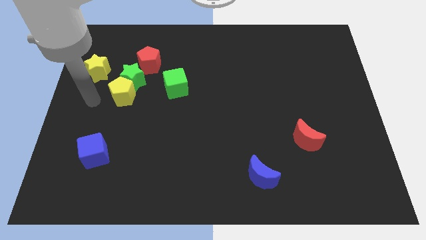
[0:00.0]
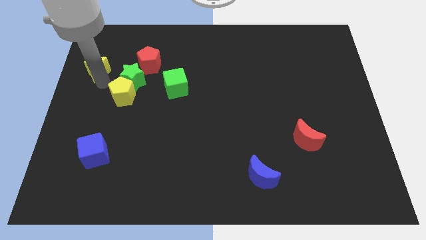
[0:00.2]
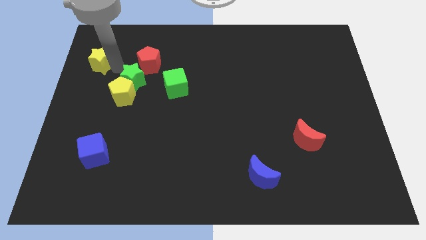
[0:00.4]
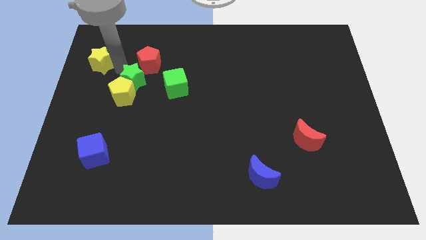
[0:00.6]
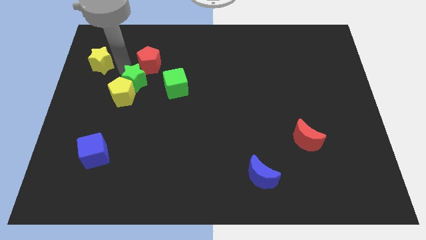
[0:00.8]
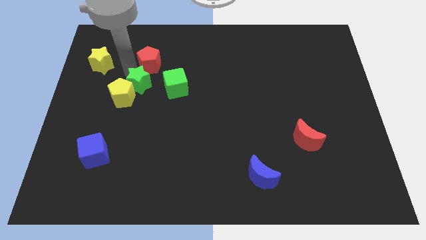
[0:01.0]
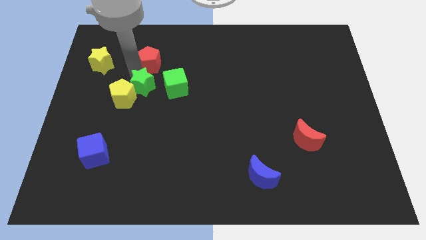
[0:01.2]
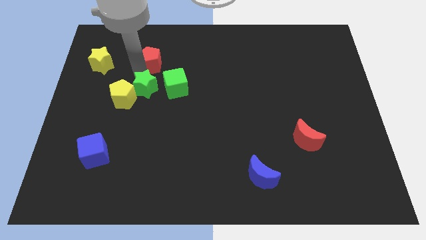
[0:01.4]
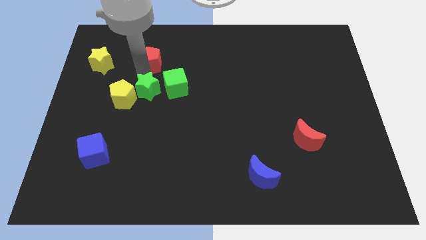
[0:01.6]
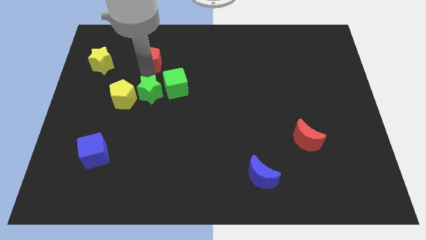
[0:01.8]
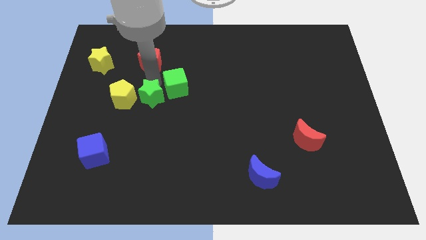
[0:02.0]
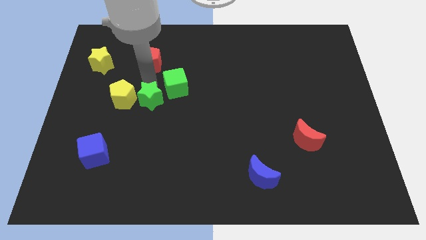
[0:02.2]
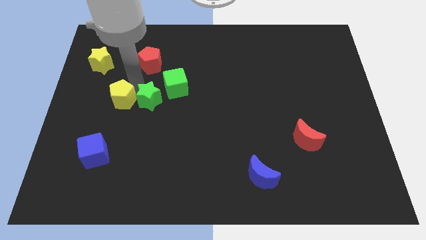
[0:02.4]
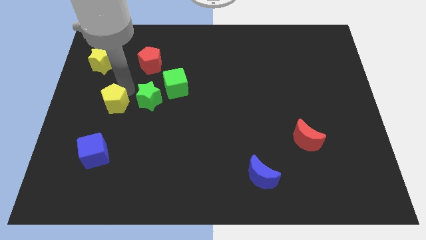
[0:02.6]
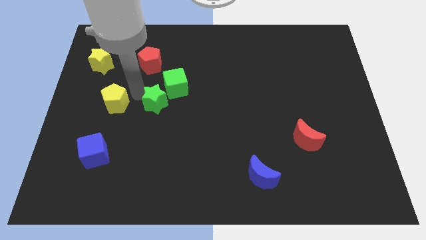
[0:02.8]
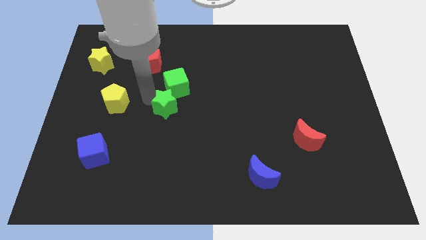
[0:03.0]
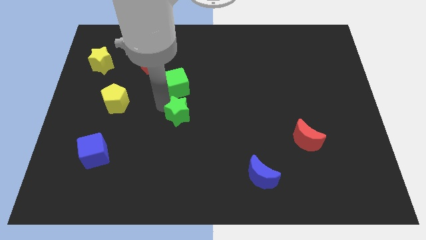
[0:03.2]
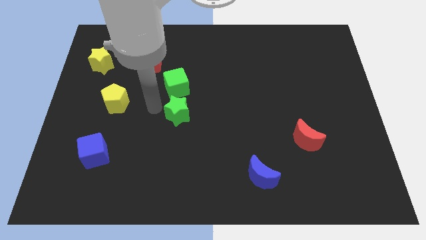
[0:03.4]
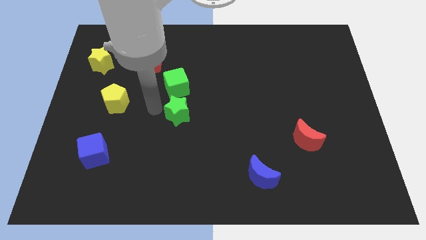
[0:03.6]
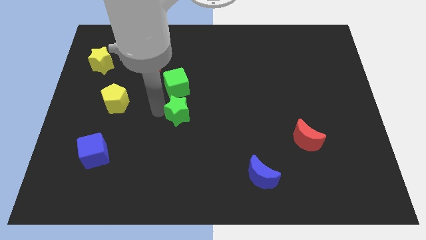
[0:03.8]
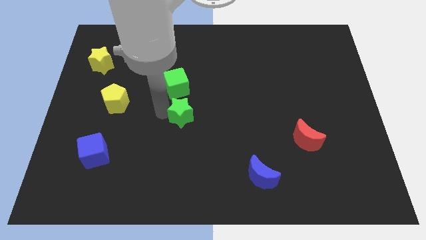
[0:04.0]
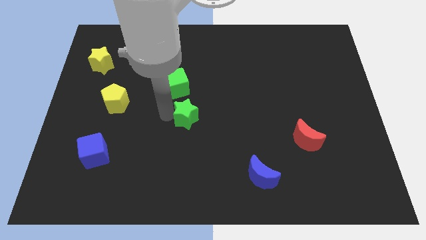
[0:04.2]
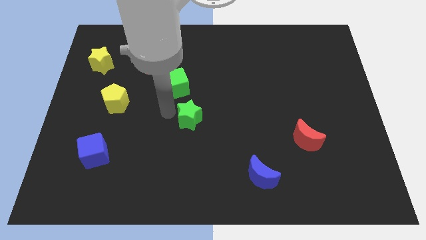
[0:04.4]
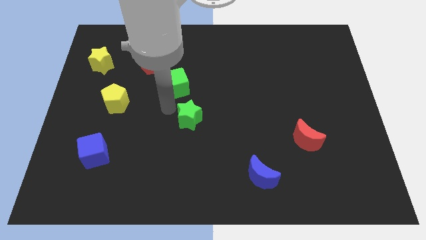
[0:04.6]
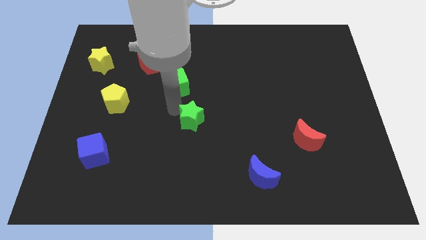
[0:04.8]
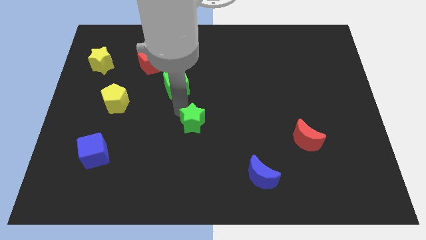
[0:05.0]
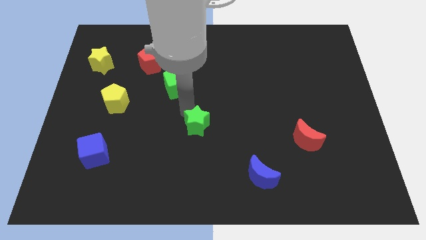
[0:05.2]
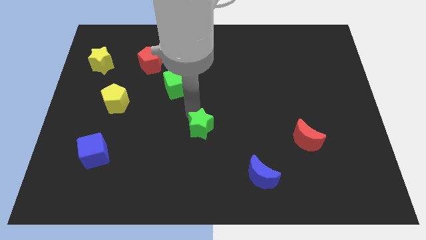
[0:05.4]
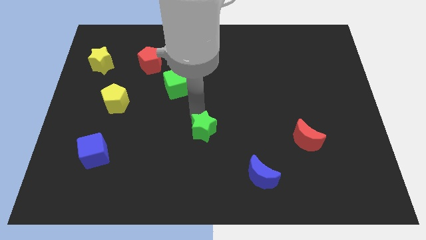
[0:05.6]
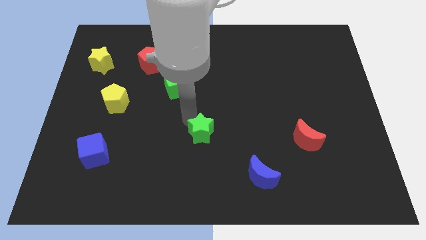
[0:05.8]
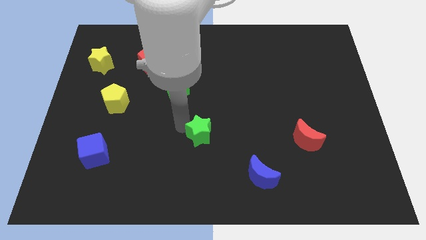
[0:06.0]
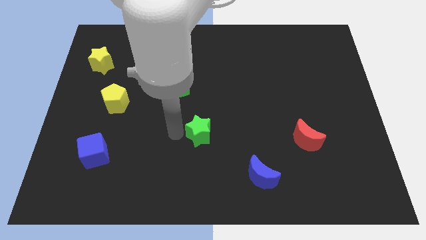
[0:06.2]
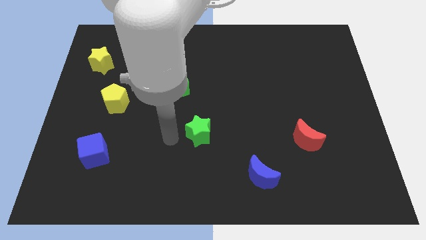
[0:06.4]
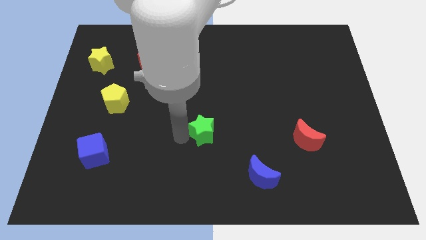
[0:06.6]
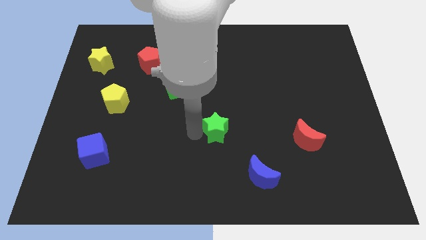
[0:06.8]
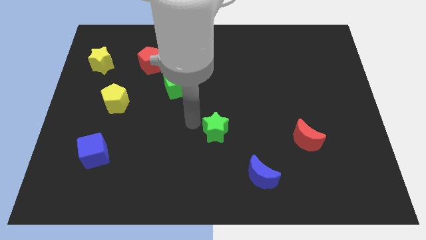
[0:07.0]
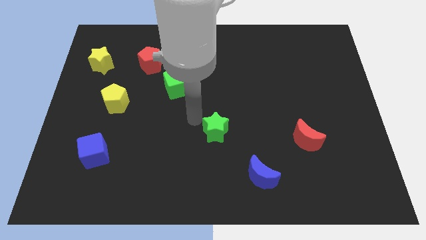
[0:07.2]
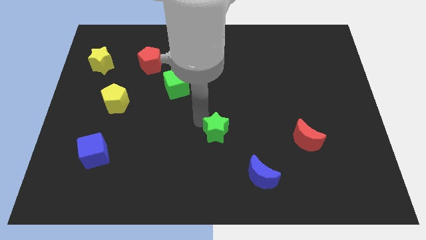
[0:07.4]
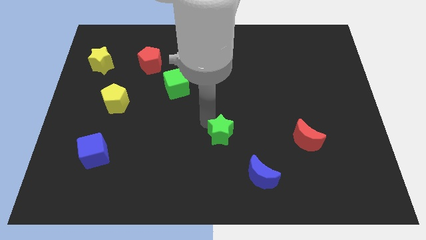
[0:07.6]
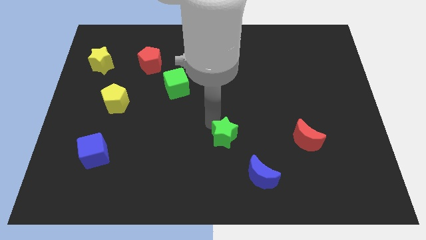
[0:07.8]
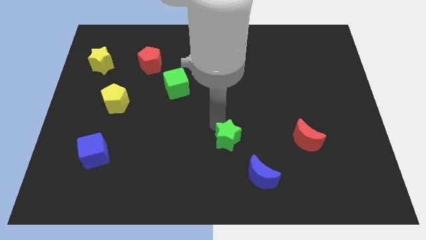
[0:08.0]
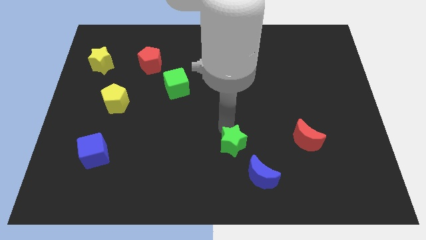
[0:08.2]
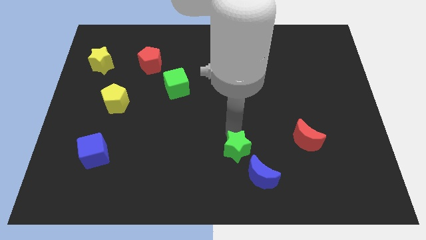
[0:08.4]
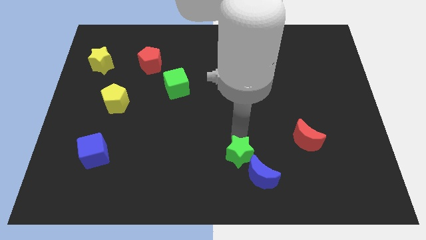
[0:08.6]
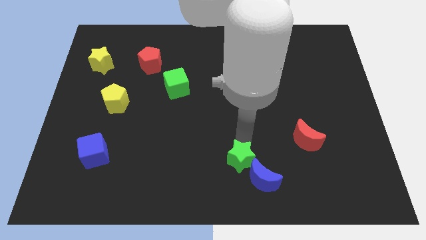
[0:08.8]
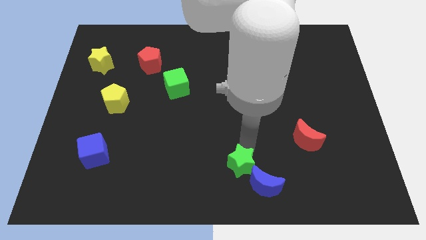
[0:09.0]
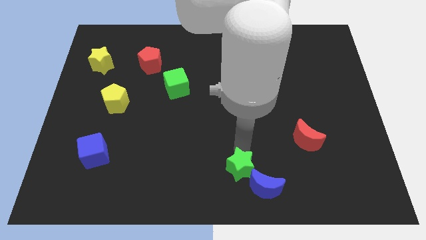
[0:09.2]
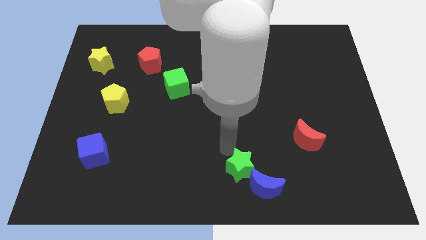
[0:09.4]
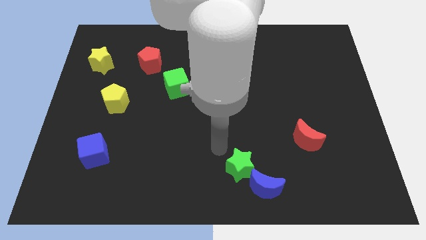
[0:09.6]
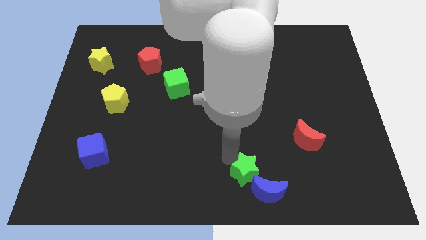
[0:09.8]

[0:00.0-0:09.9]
slide the green star towards the blue moon

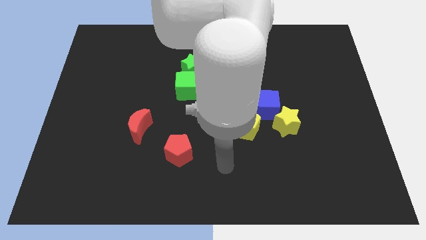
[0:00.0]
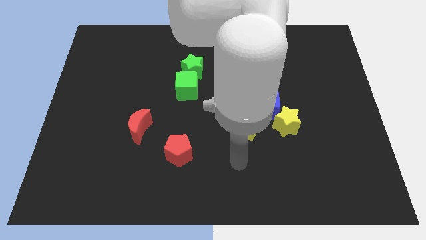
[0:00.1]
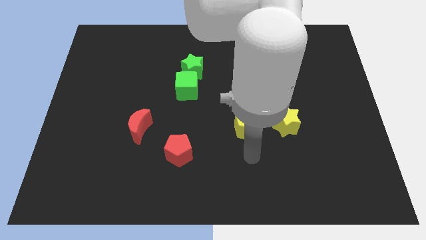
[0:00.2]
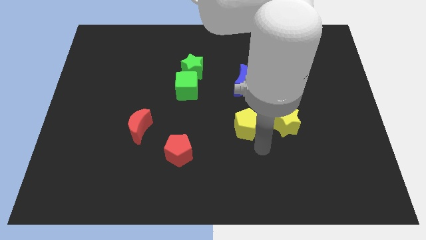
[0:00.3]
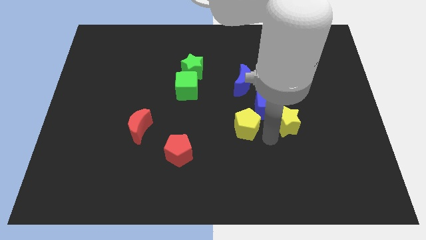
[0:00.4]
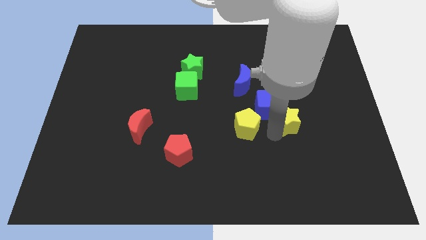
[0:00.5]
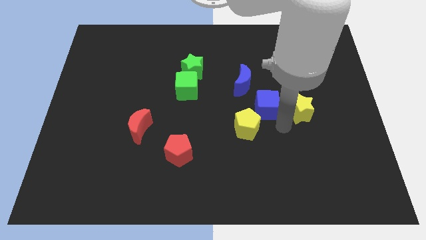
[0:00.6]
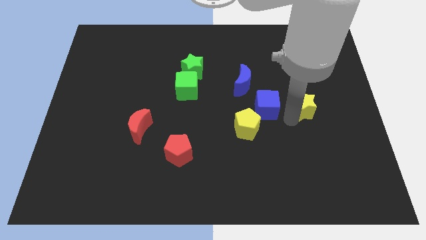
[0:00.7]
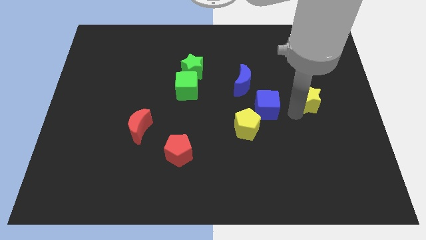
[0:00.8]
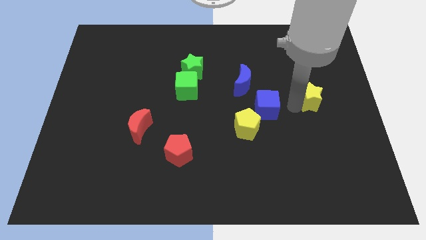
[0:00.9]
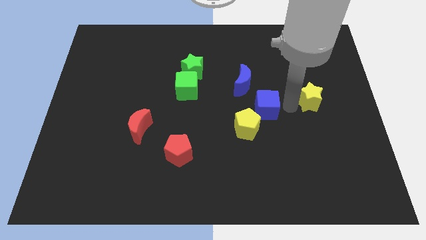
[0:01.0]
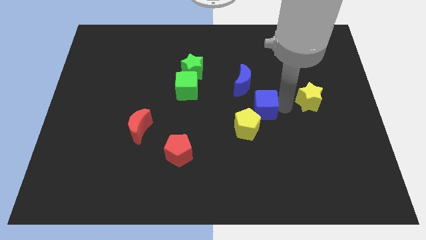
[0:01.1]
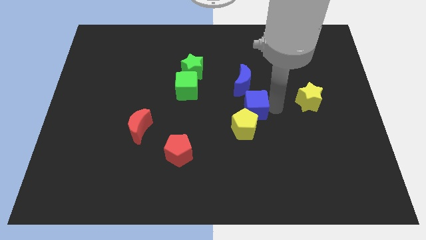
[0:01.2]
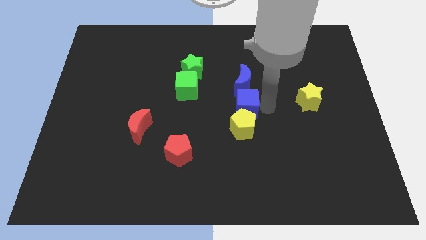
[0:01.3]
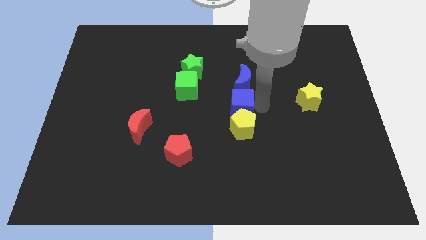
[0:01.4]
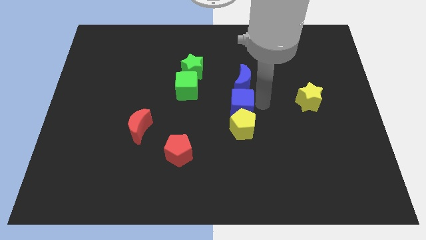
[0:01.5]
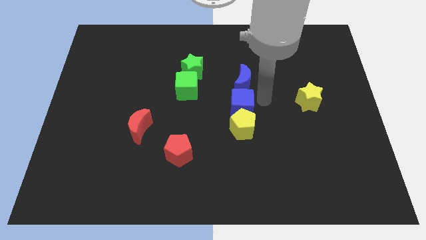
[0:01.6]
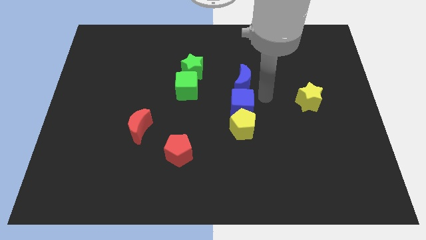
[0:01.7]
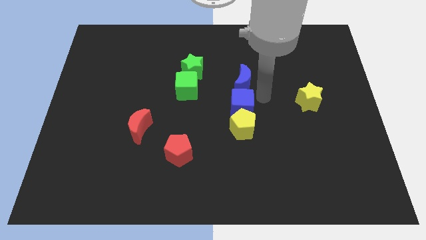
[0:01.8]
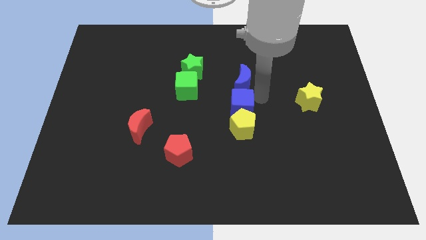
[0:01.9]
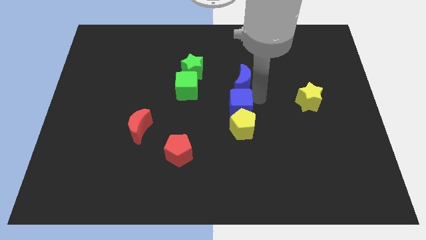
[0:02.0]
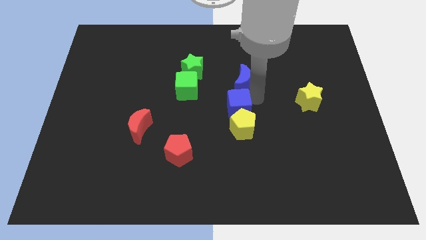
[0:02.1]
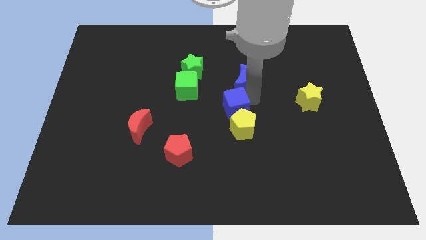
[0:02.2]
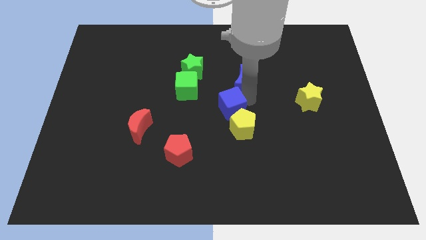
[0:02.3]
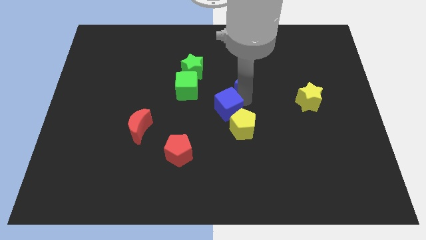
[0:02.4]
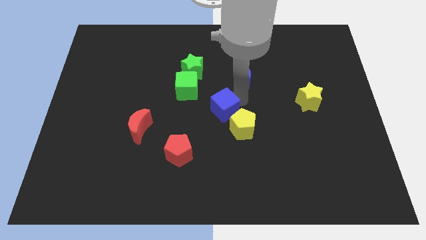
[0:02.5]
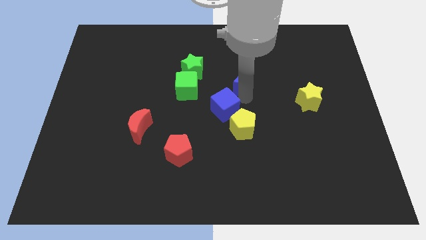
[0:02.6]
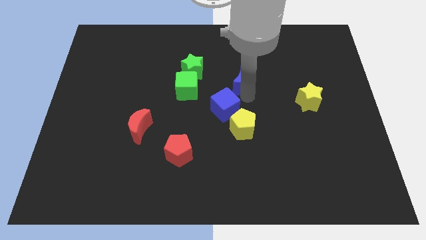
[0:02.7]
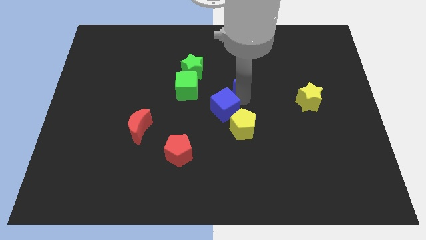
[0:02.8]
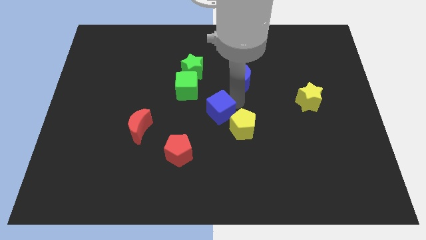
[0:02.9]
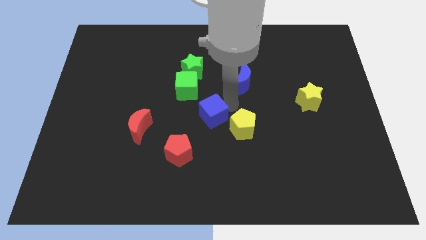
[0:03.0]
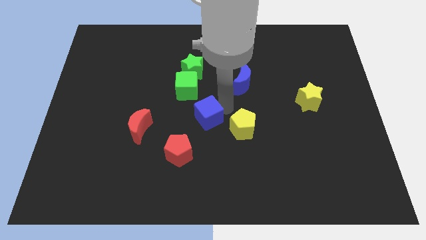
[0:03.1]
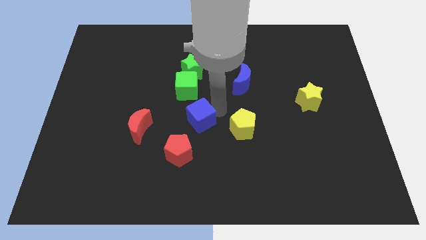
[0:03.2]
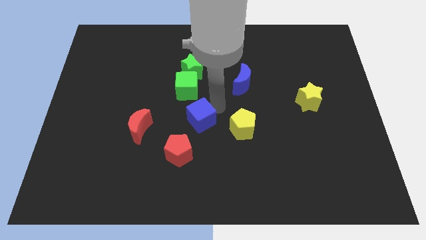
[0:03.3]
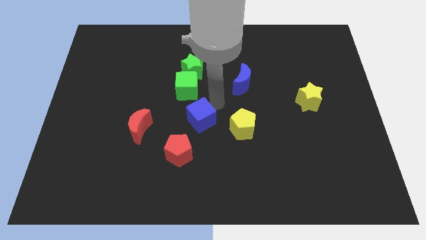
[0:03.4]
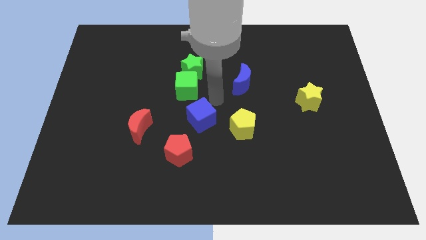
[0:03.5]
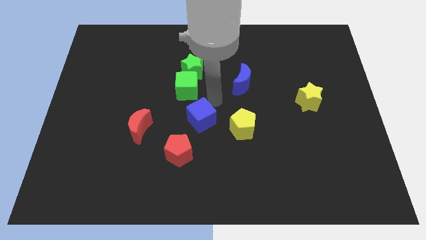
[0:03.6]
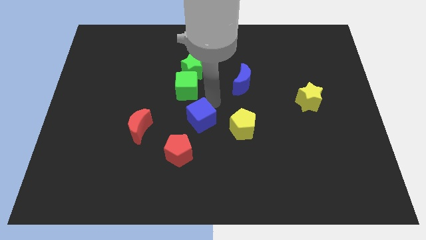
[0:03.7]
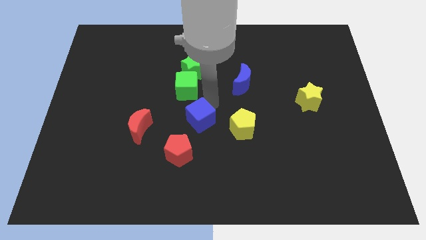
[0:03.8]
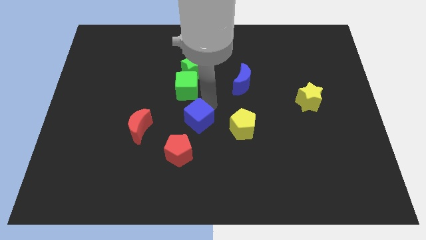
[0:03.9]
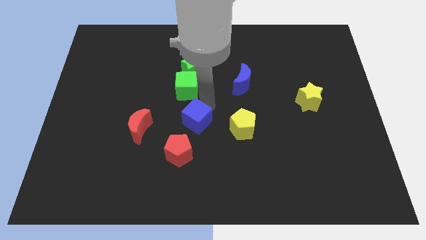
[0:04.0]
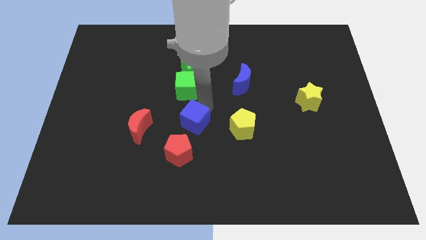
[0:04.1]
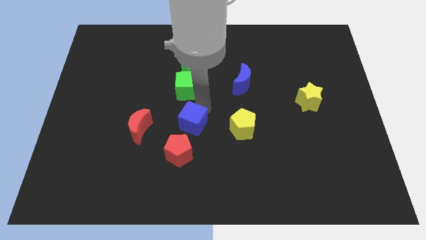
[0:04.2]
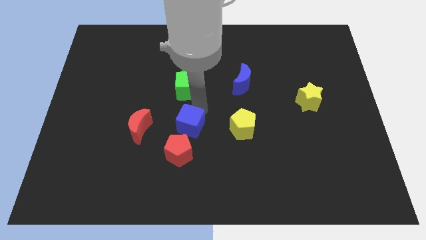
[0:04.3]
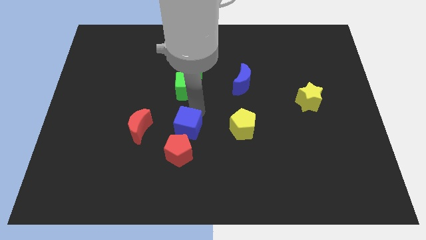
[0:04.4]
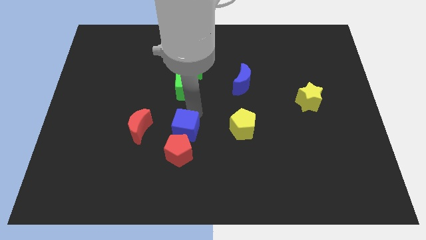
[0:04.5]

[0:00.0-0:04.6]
put the blue cube close to the red pentagon
